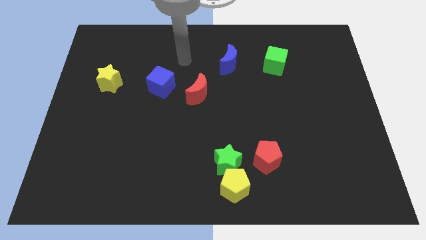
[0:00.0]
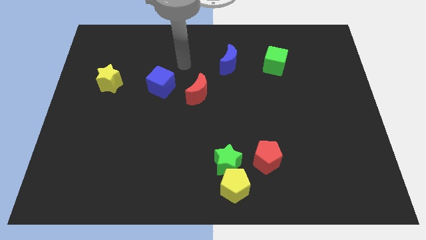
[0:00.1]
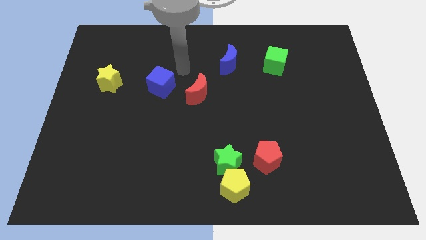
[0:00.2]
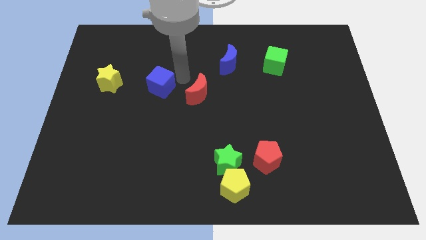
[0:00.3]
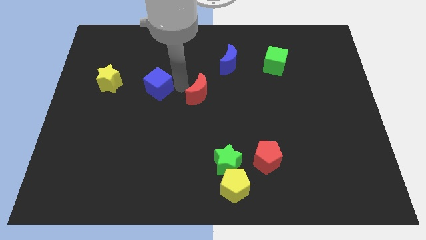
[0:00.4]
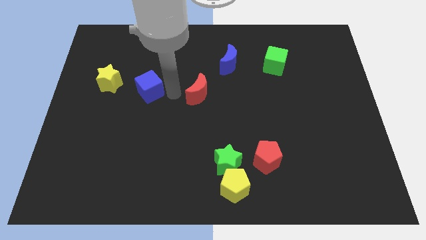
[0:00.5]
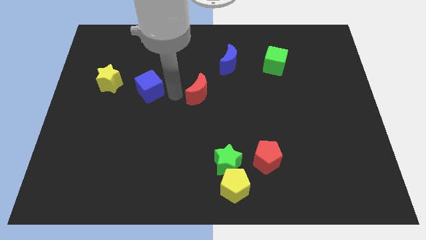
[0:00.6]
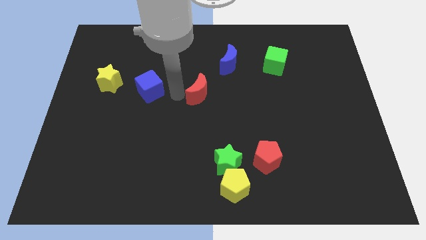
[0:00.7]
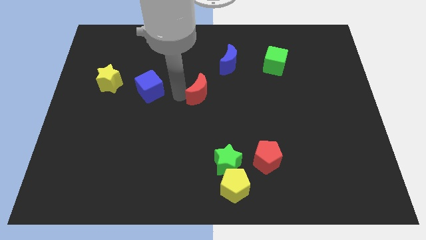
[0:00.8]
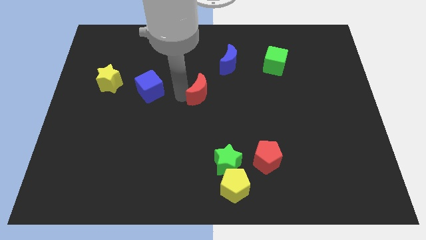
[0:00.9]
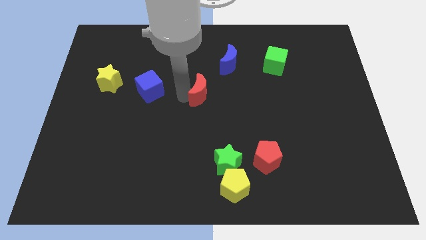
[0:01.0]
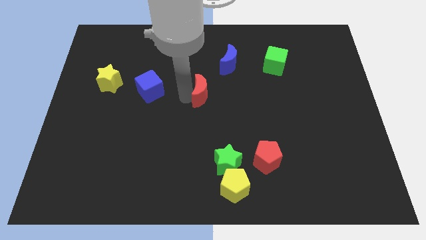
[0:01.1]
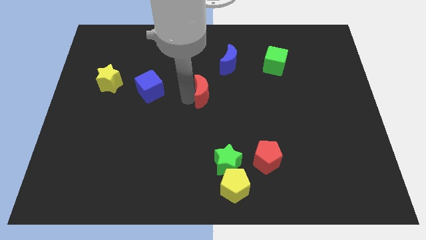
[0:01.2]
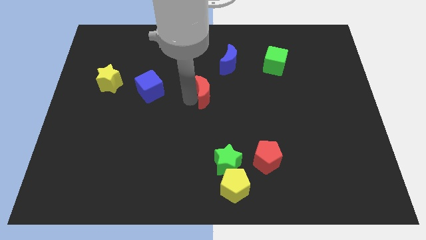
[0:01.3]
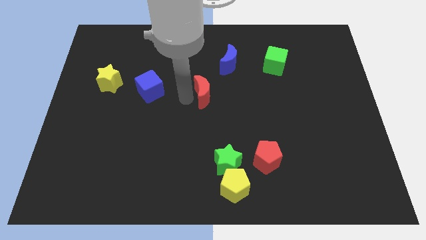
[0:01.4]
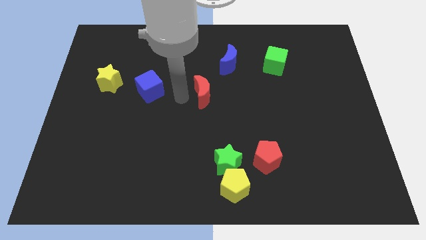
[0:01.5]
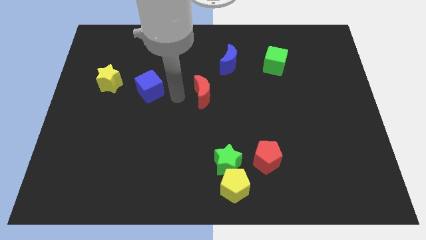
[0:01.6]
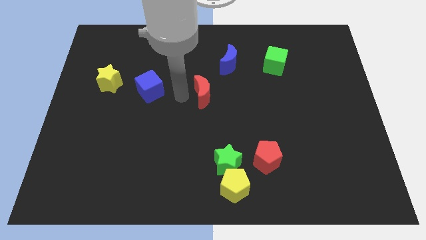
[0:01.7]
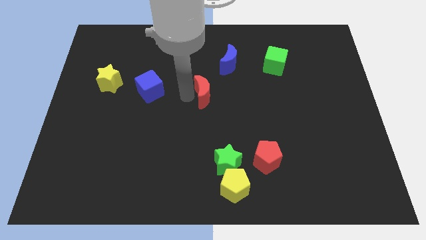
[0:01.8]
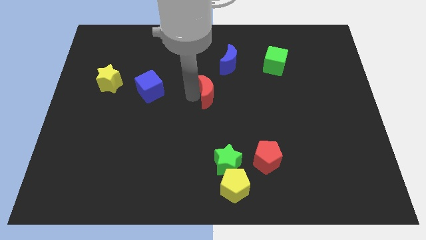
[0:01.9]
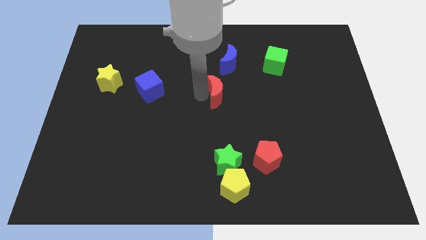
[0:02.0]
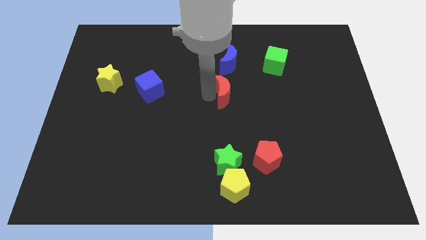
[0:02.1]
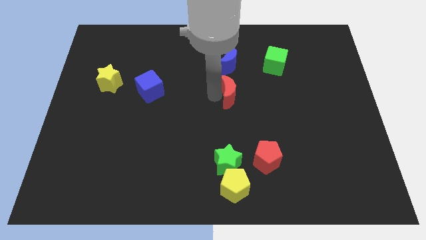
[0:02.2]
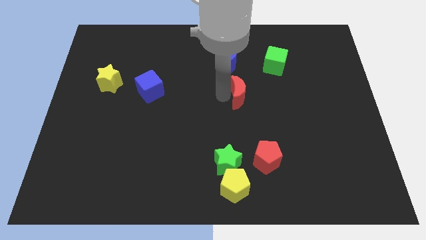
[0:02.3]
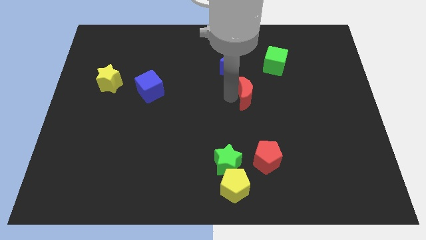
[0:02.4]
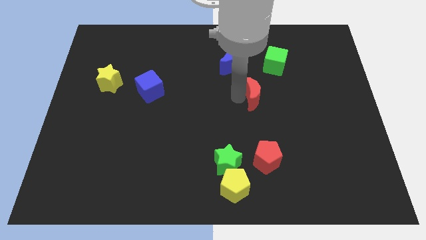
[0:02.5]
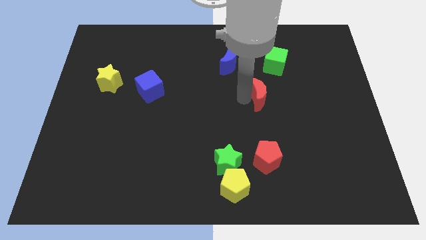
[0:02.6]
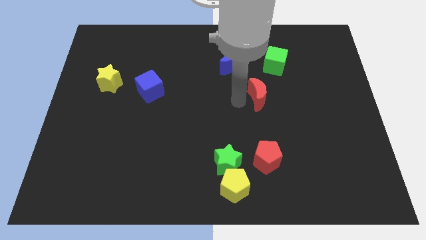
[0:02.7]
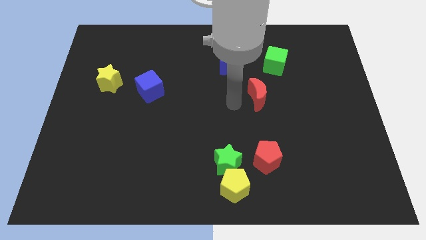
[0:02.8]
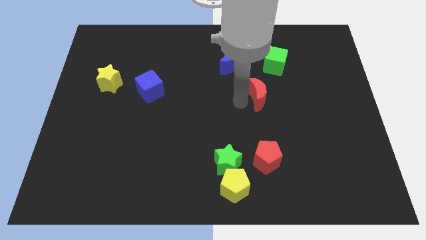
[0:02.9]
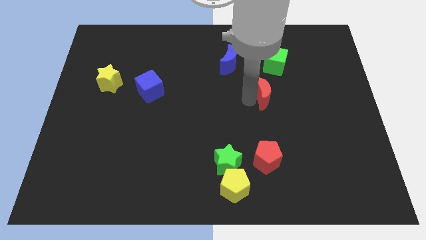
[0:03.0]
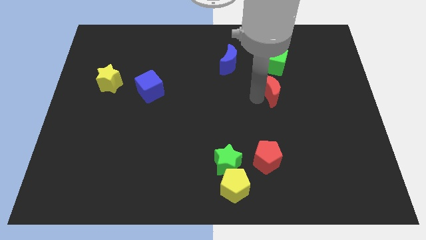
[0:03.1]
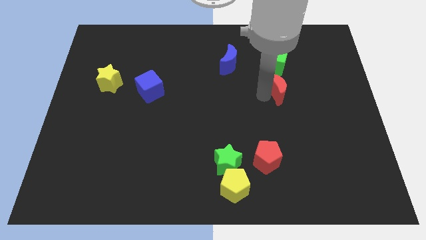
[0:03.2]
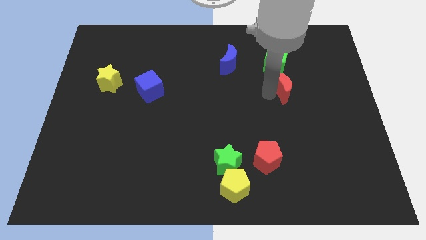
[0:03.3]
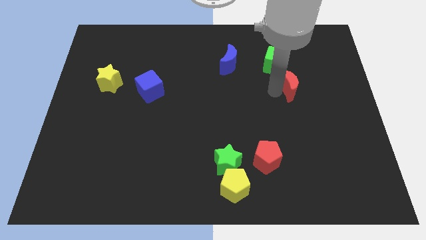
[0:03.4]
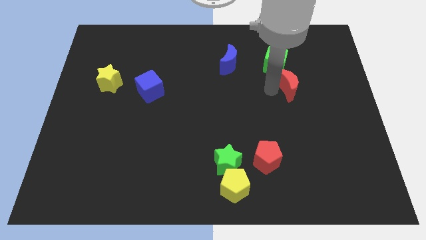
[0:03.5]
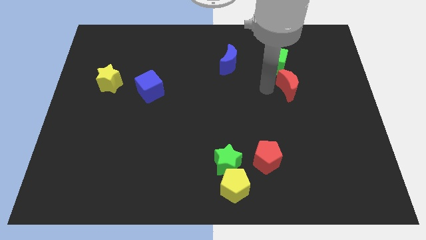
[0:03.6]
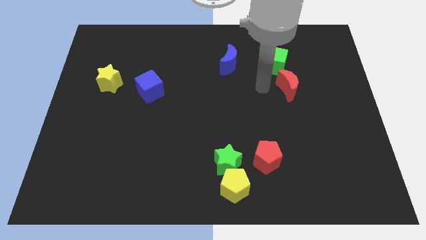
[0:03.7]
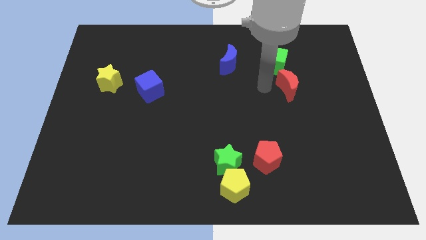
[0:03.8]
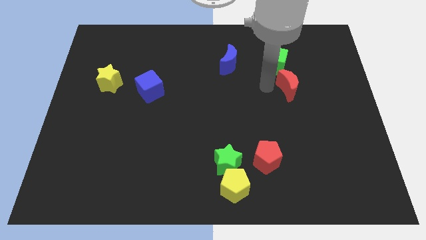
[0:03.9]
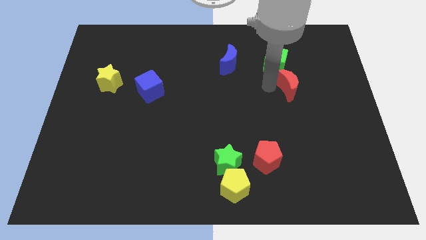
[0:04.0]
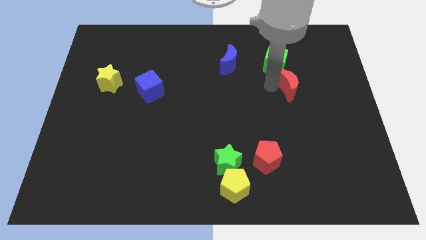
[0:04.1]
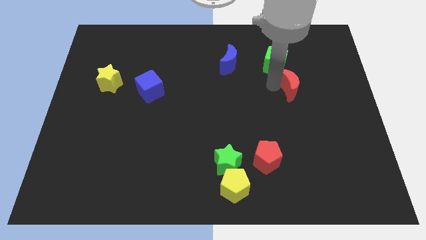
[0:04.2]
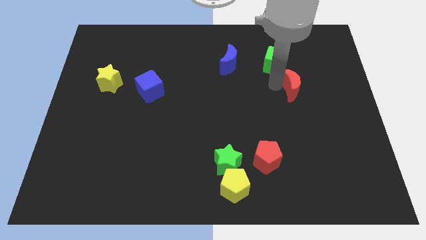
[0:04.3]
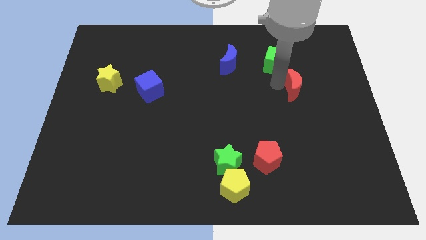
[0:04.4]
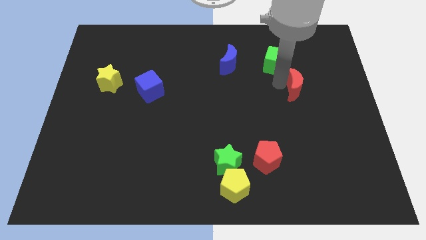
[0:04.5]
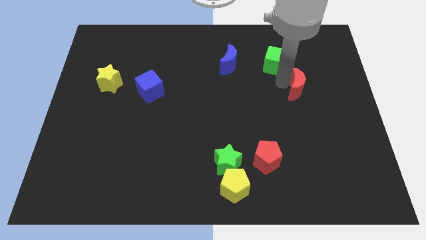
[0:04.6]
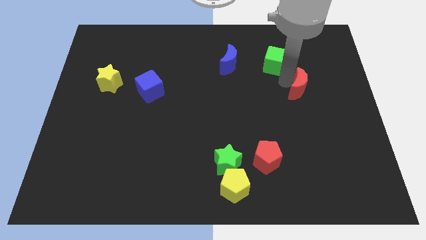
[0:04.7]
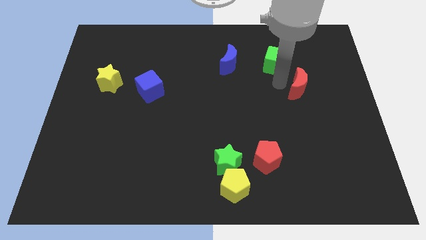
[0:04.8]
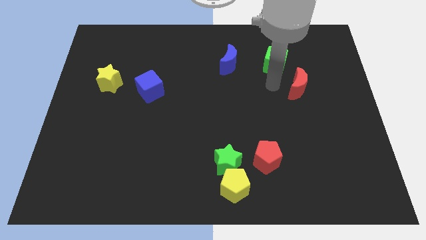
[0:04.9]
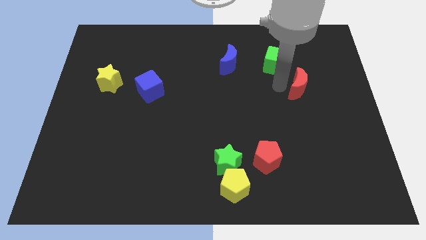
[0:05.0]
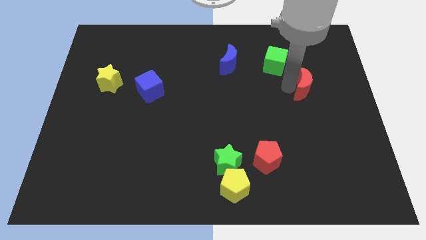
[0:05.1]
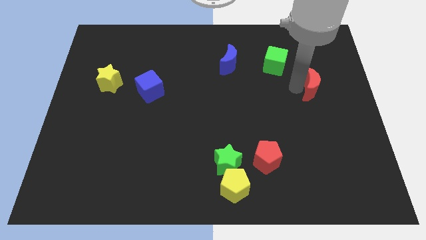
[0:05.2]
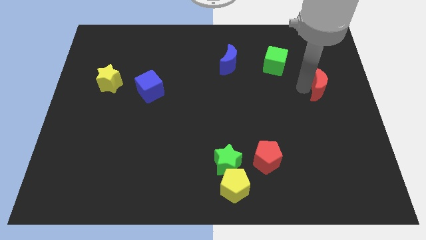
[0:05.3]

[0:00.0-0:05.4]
move the red moon to the center right
